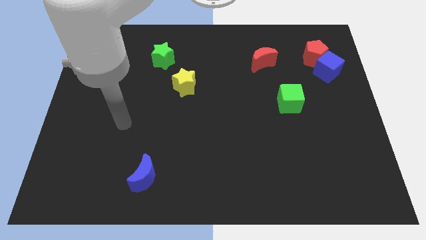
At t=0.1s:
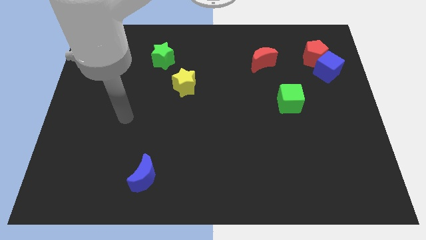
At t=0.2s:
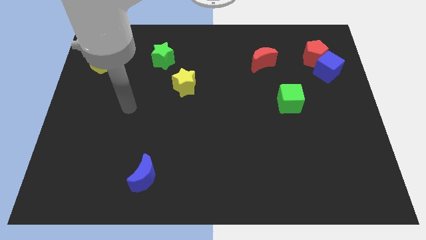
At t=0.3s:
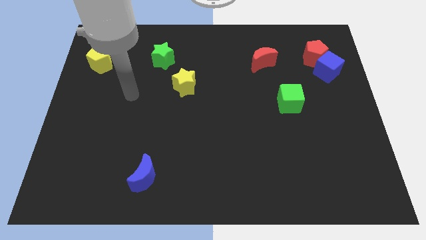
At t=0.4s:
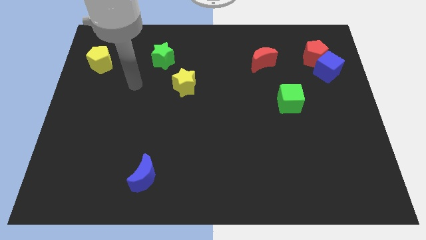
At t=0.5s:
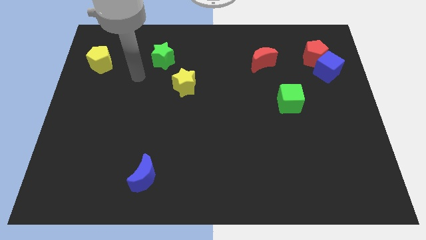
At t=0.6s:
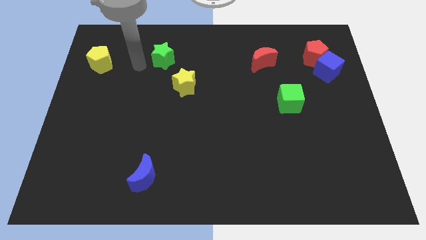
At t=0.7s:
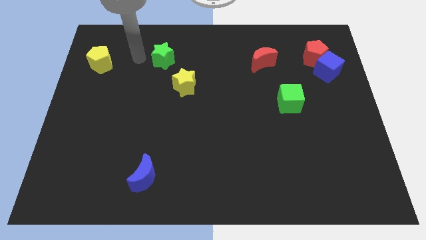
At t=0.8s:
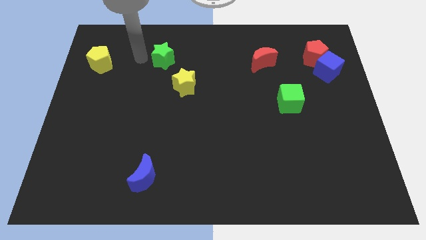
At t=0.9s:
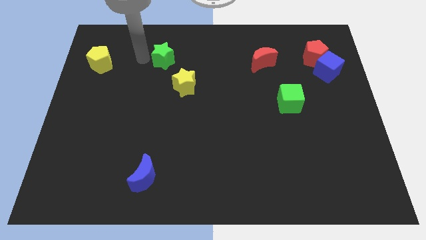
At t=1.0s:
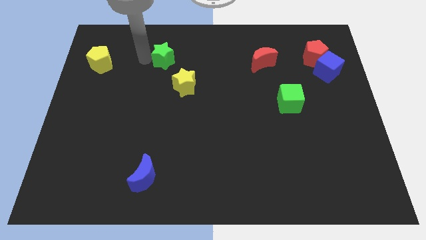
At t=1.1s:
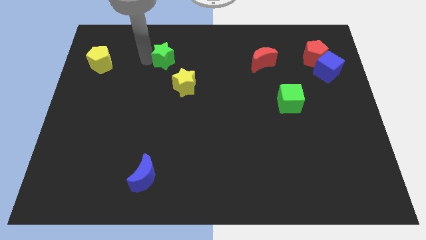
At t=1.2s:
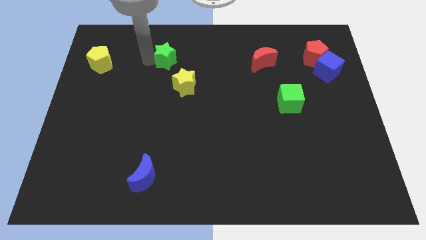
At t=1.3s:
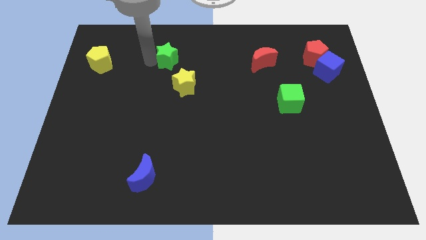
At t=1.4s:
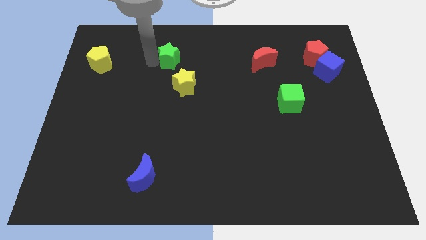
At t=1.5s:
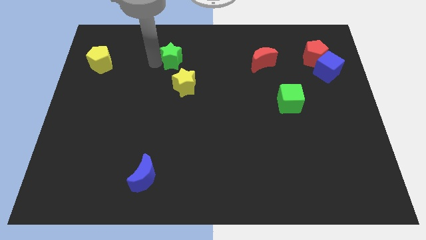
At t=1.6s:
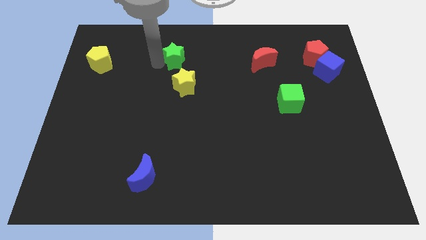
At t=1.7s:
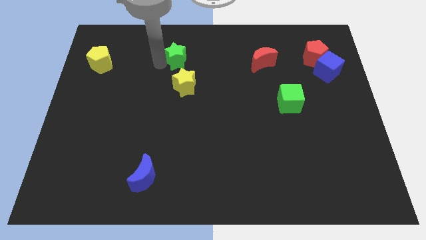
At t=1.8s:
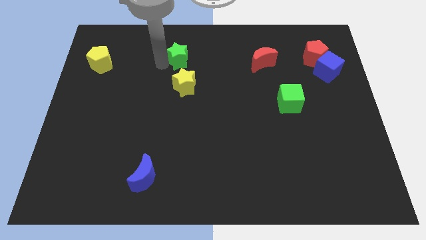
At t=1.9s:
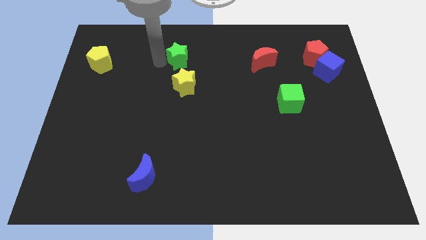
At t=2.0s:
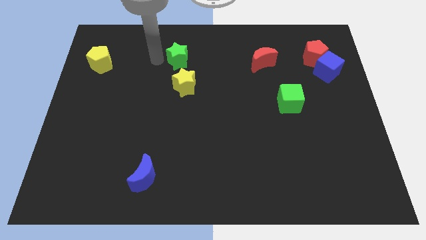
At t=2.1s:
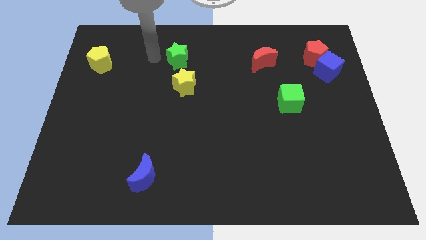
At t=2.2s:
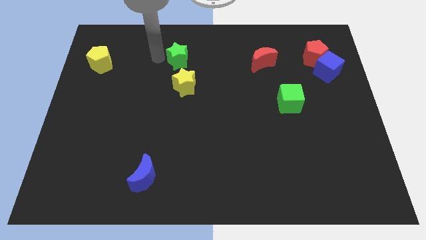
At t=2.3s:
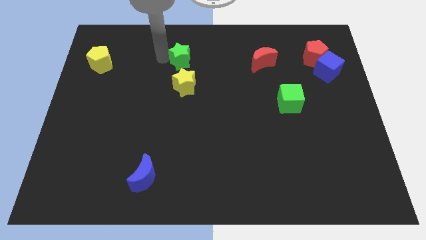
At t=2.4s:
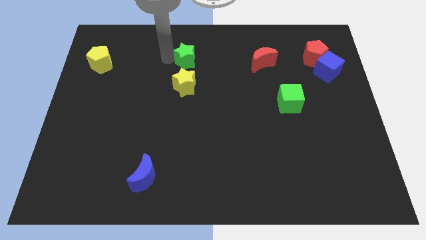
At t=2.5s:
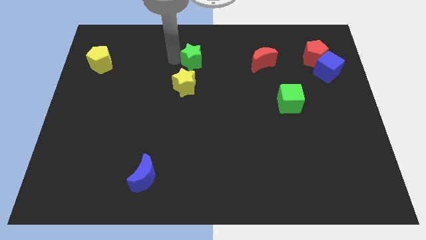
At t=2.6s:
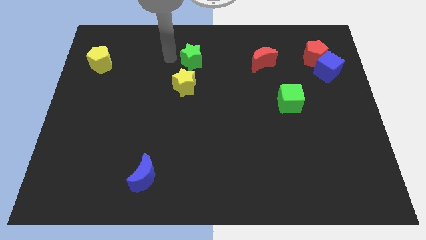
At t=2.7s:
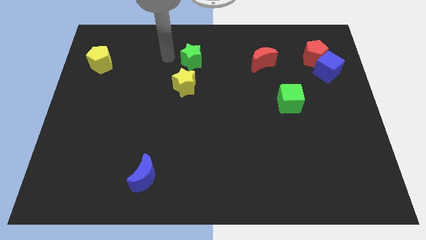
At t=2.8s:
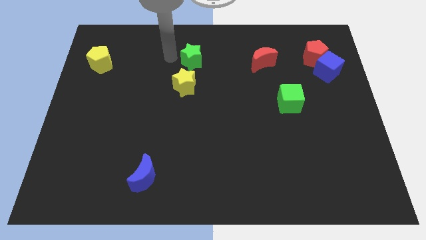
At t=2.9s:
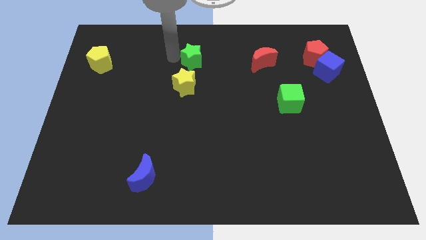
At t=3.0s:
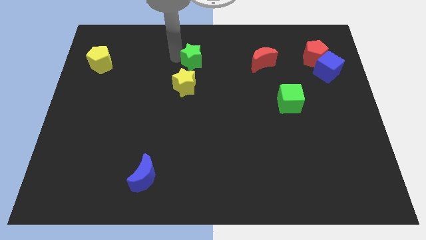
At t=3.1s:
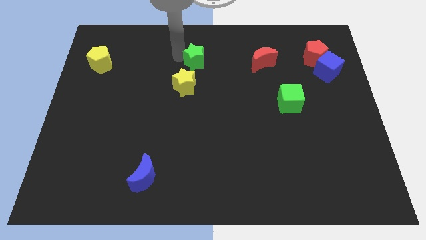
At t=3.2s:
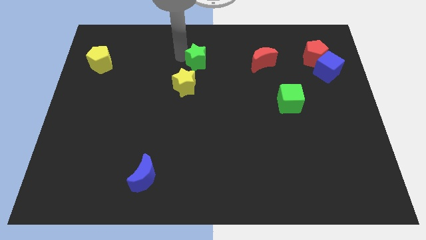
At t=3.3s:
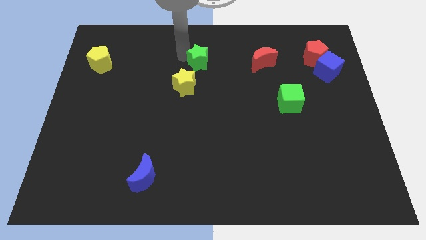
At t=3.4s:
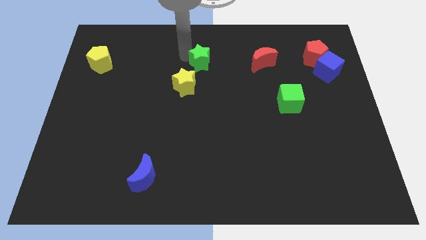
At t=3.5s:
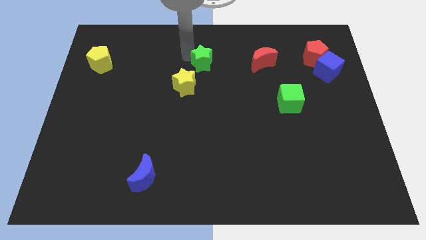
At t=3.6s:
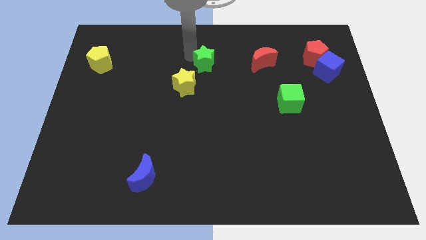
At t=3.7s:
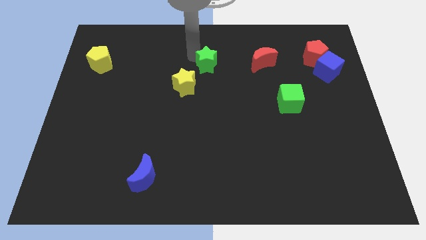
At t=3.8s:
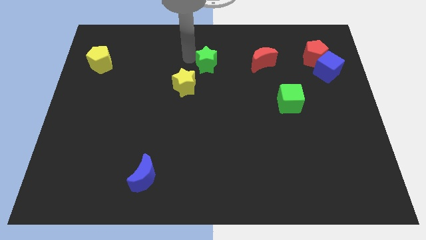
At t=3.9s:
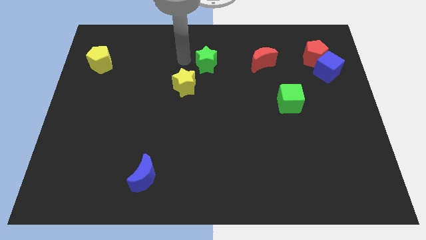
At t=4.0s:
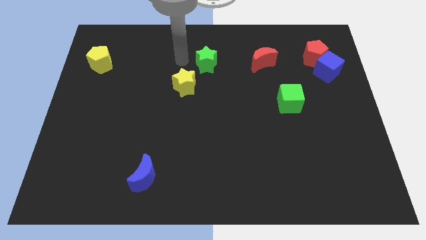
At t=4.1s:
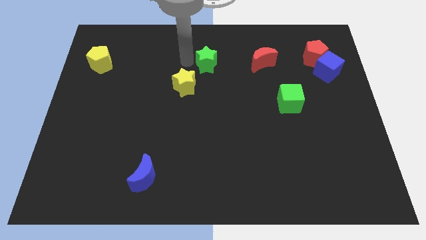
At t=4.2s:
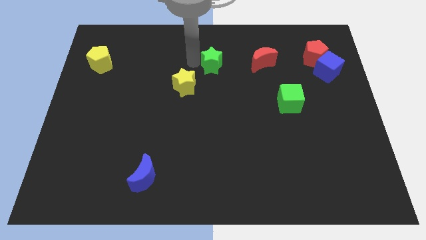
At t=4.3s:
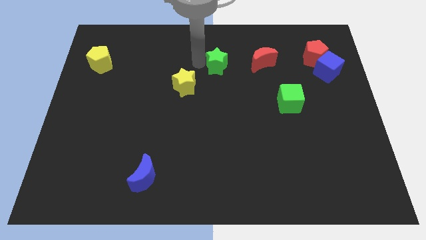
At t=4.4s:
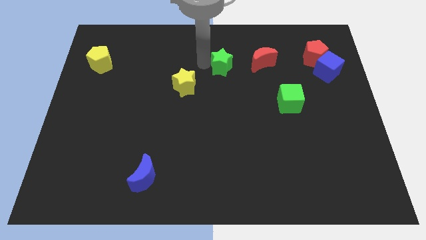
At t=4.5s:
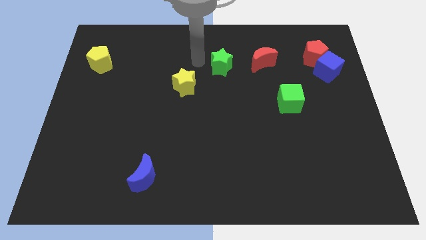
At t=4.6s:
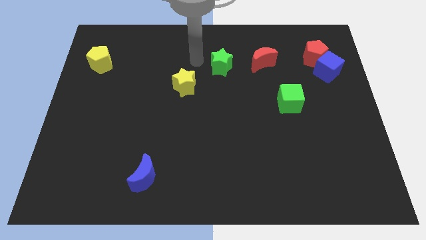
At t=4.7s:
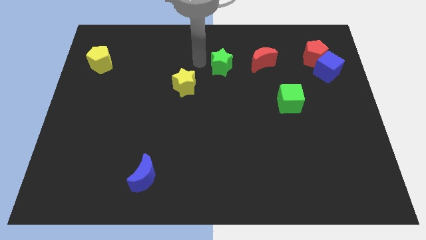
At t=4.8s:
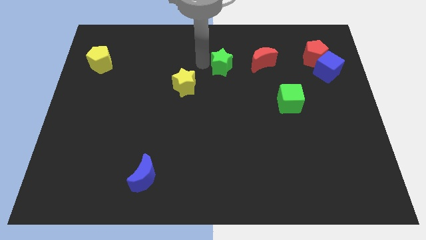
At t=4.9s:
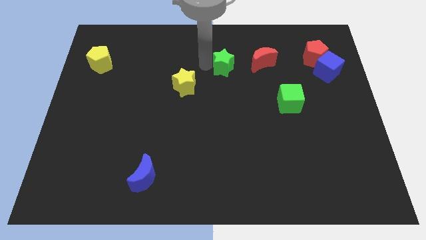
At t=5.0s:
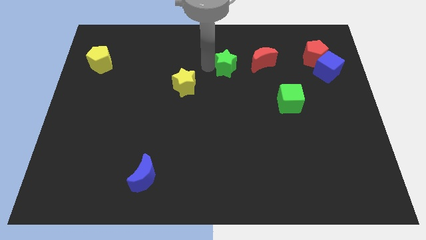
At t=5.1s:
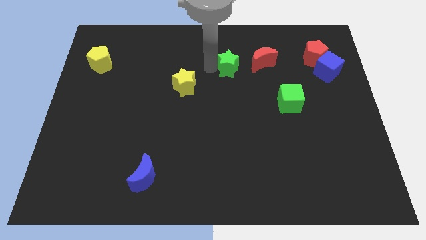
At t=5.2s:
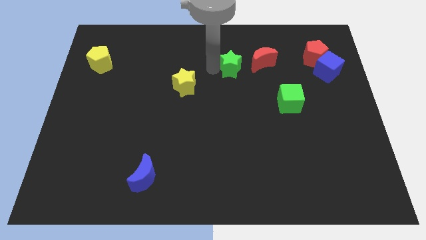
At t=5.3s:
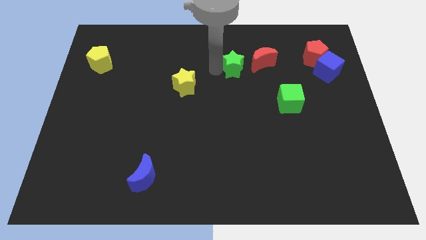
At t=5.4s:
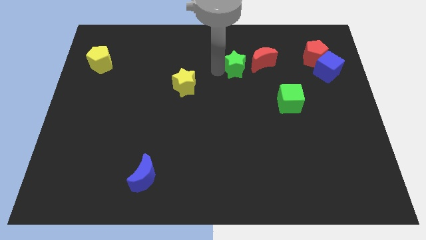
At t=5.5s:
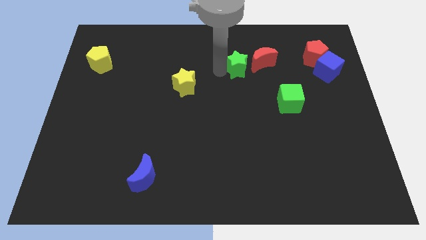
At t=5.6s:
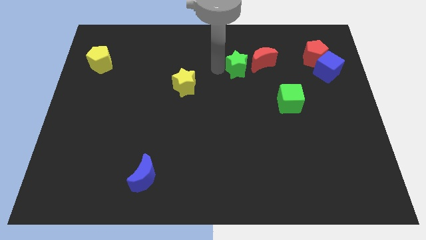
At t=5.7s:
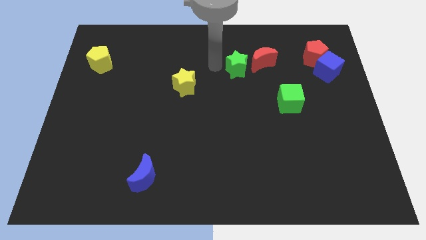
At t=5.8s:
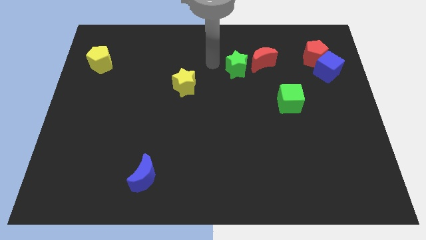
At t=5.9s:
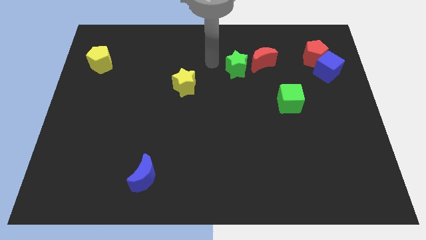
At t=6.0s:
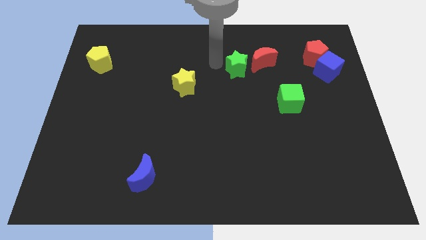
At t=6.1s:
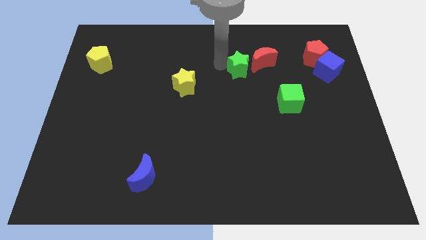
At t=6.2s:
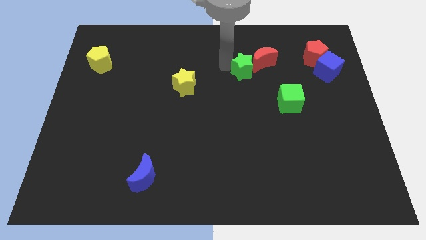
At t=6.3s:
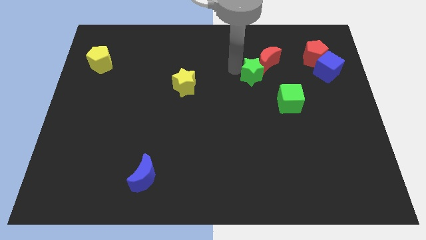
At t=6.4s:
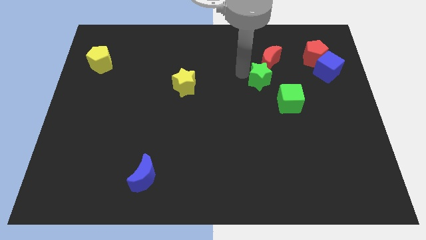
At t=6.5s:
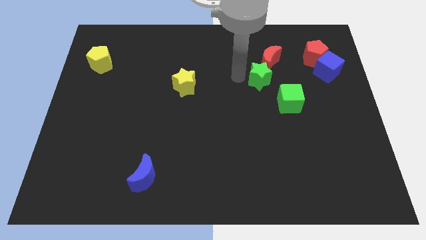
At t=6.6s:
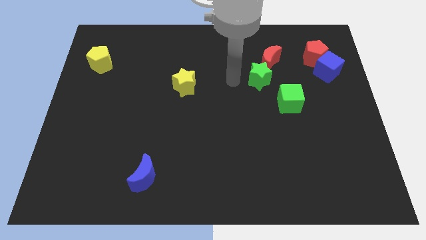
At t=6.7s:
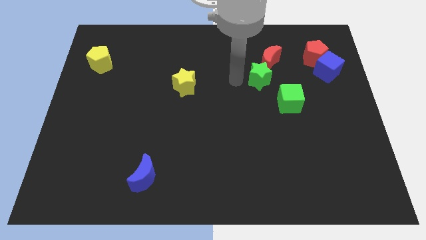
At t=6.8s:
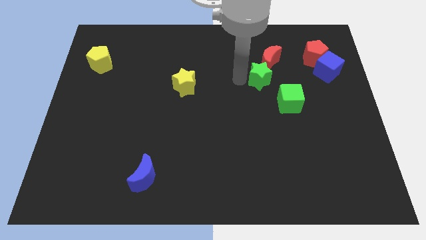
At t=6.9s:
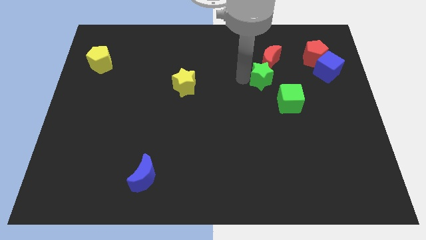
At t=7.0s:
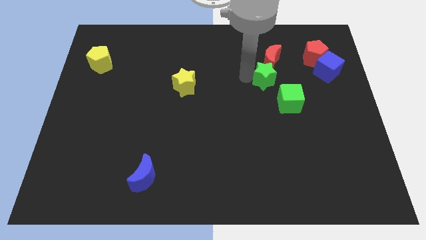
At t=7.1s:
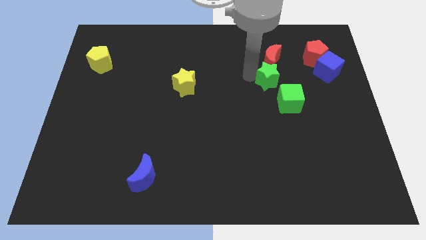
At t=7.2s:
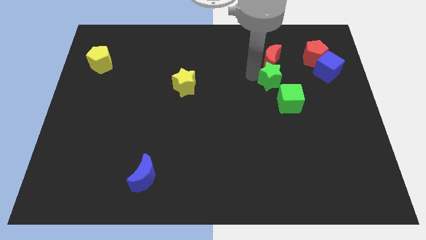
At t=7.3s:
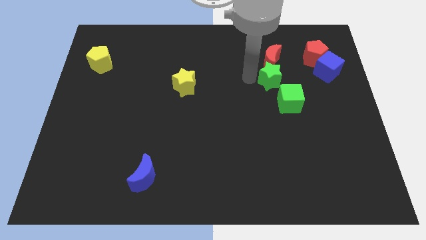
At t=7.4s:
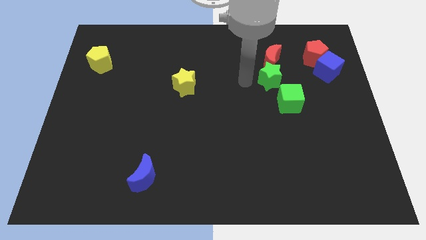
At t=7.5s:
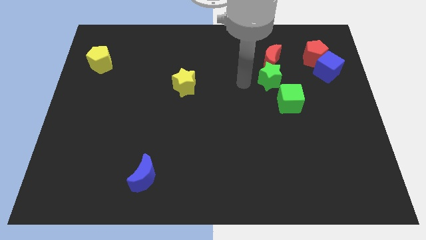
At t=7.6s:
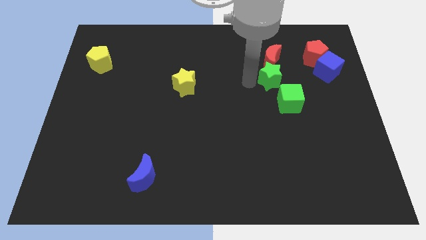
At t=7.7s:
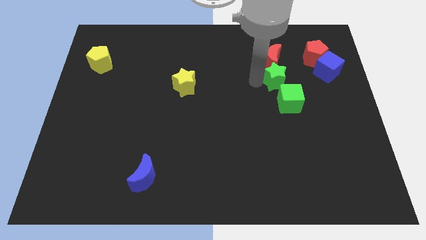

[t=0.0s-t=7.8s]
put the green star to the bottom right of the red moon
